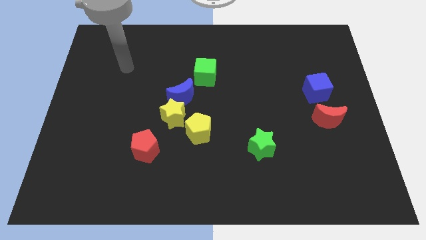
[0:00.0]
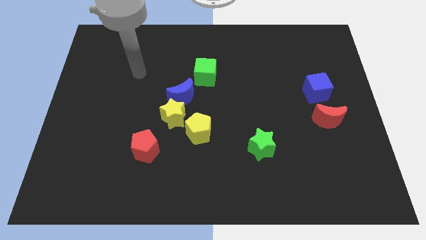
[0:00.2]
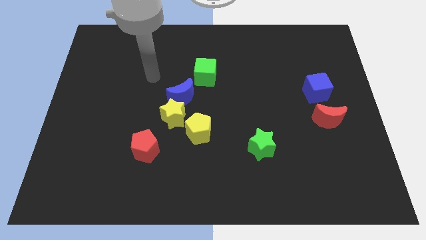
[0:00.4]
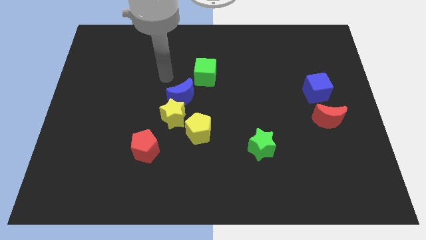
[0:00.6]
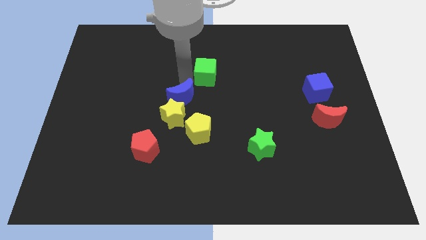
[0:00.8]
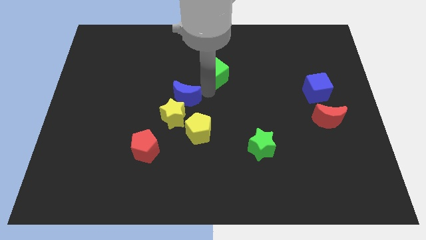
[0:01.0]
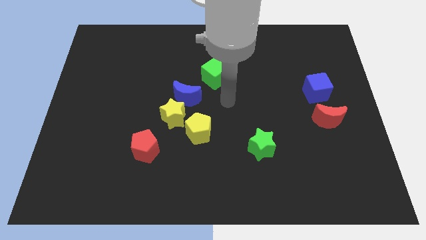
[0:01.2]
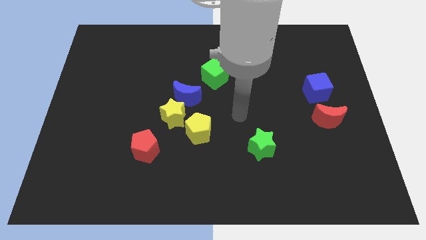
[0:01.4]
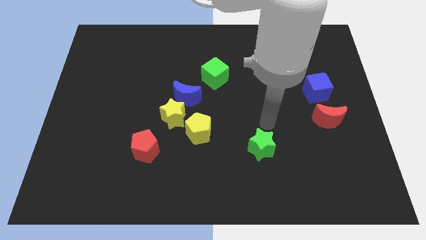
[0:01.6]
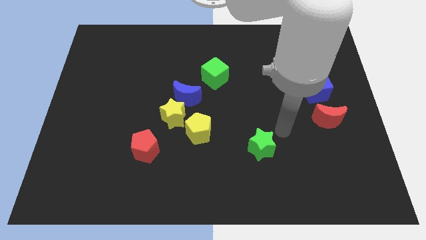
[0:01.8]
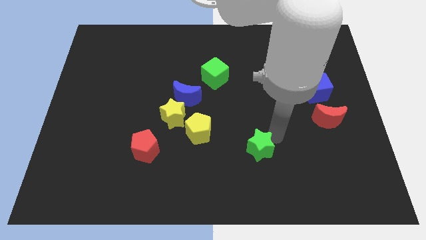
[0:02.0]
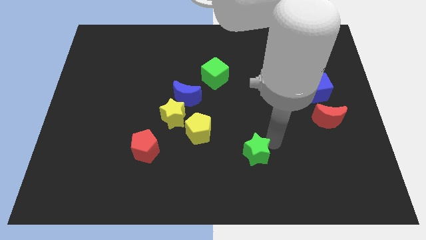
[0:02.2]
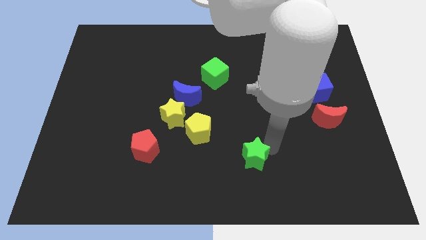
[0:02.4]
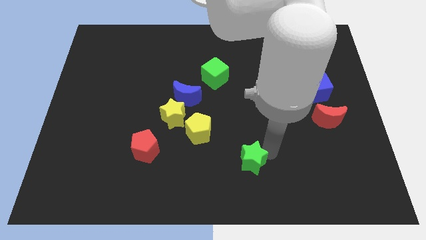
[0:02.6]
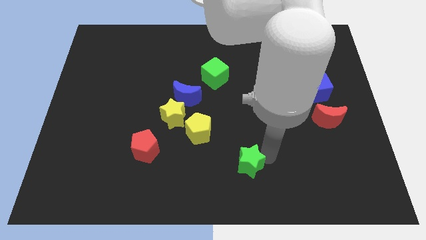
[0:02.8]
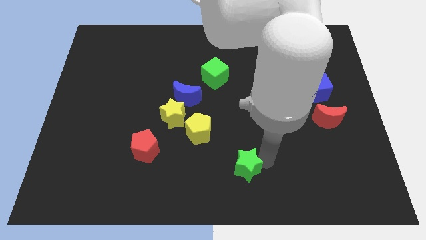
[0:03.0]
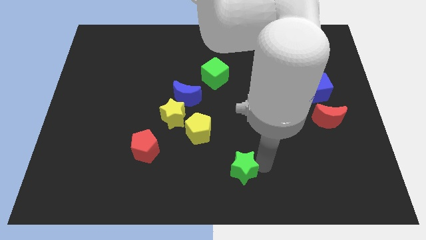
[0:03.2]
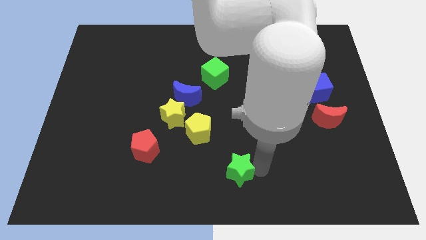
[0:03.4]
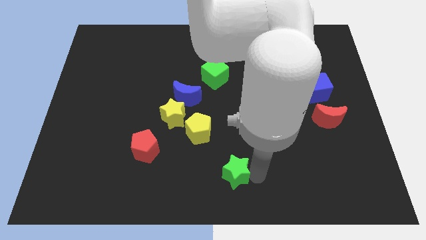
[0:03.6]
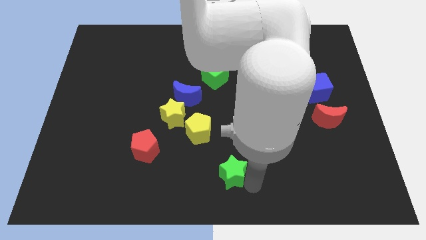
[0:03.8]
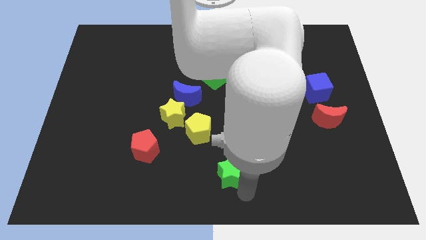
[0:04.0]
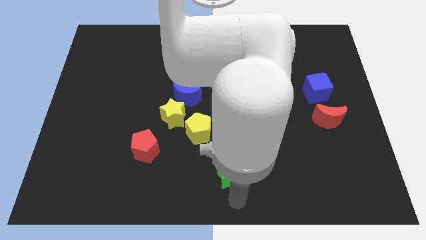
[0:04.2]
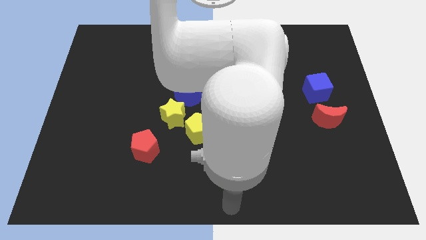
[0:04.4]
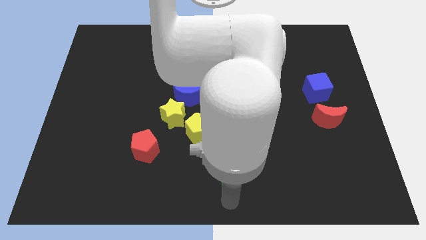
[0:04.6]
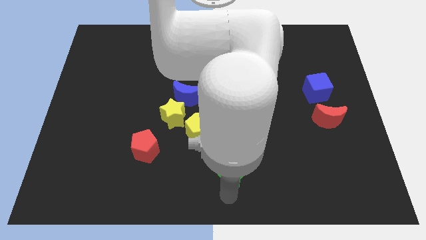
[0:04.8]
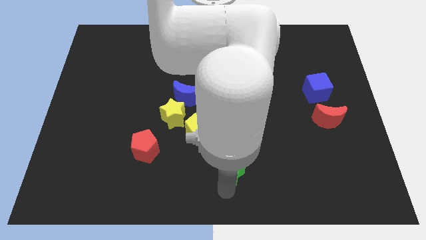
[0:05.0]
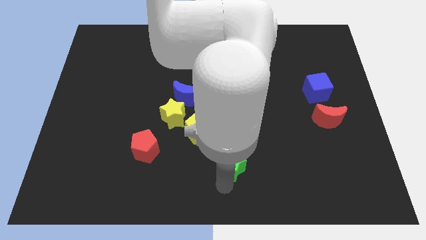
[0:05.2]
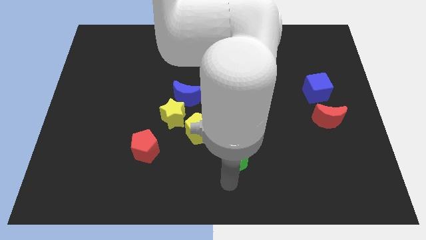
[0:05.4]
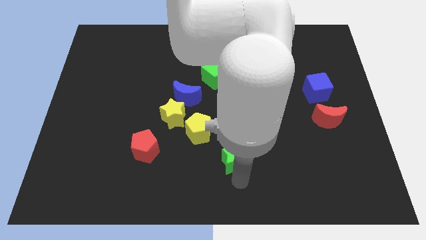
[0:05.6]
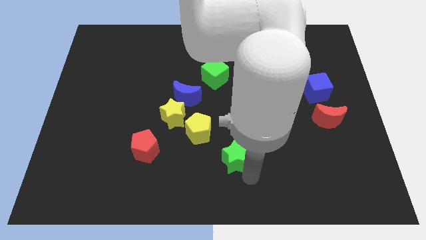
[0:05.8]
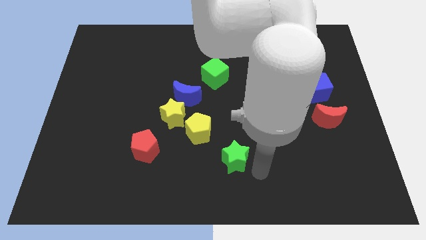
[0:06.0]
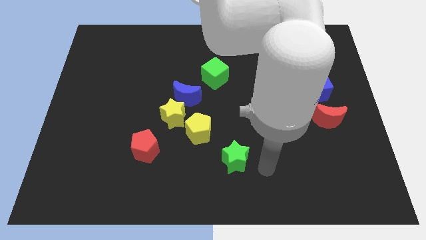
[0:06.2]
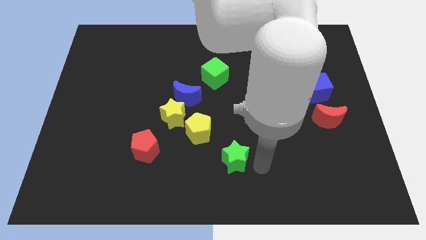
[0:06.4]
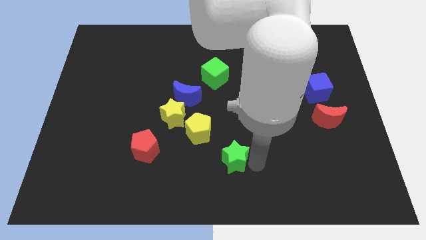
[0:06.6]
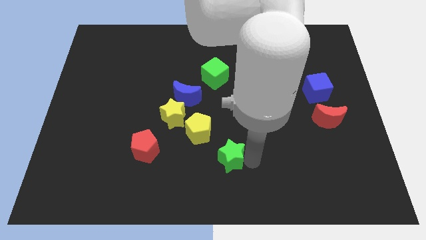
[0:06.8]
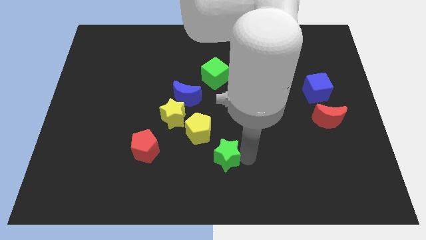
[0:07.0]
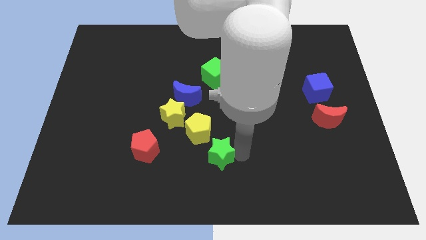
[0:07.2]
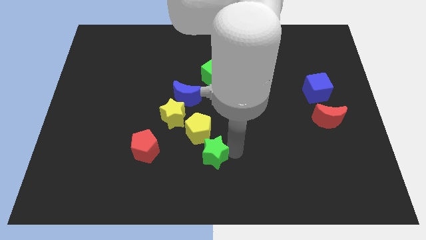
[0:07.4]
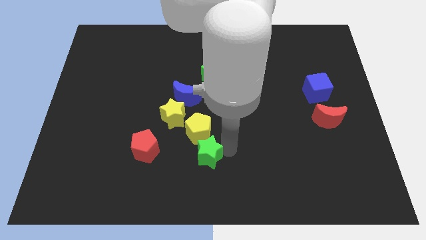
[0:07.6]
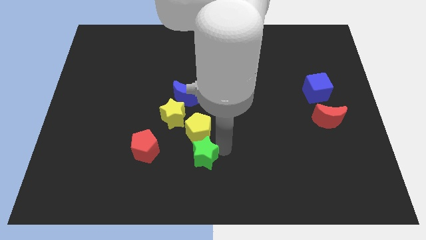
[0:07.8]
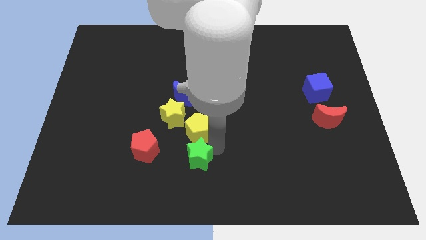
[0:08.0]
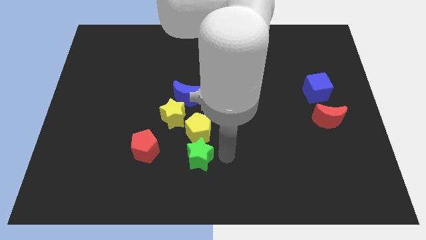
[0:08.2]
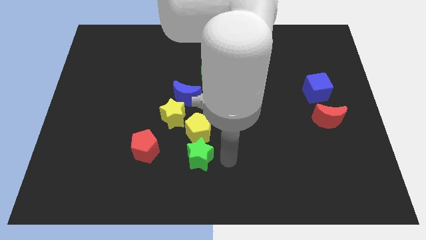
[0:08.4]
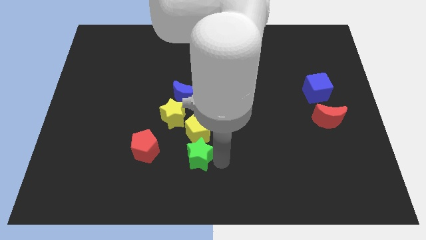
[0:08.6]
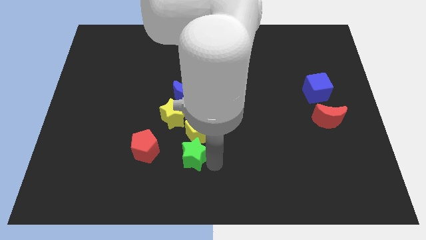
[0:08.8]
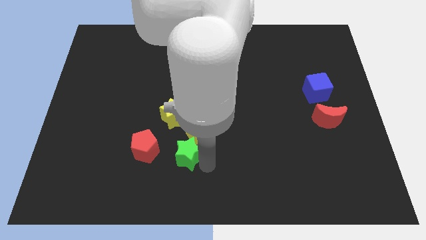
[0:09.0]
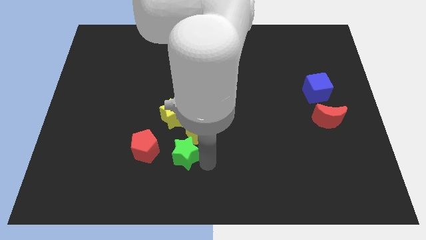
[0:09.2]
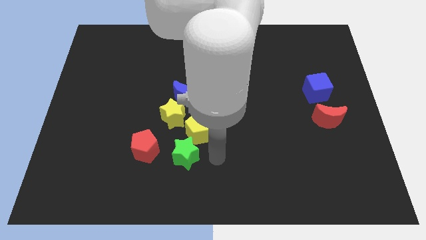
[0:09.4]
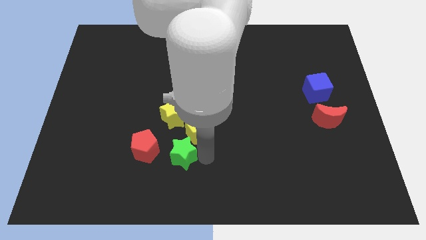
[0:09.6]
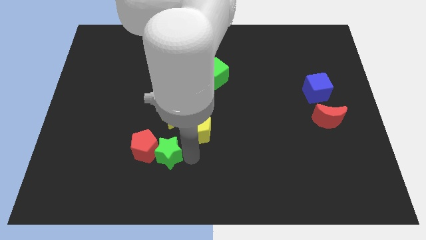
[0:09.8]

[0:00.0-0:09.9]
slide the green star close to the red pentagon

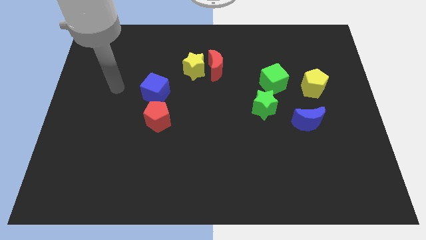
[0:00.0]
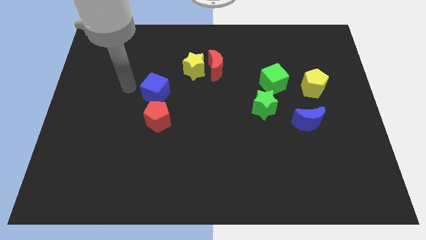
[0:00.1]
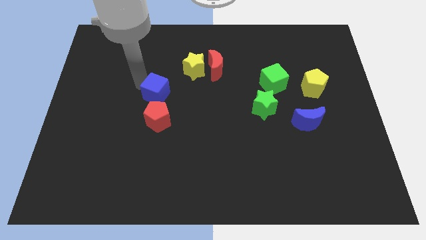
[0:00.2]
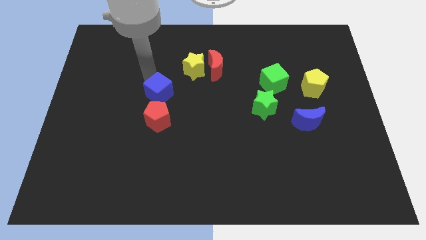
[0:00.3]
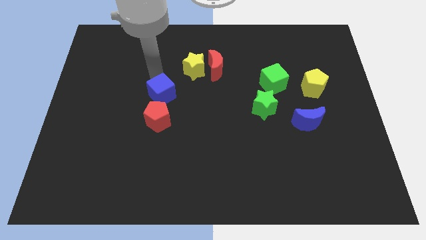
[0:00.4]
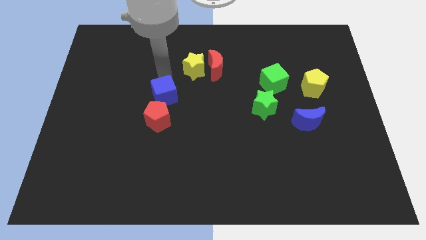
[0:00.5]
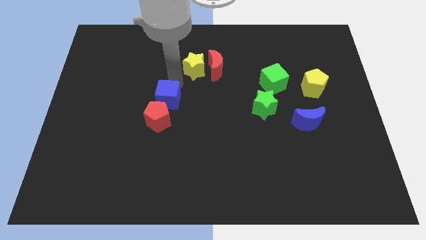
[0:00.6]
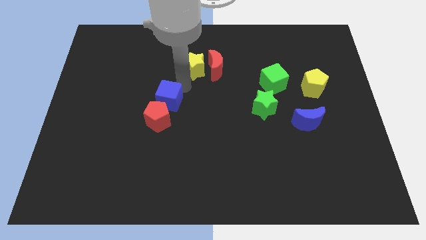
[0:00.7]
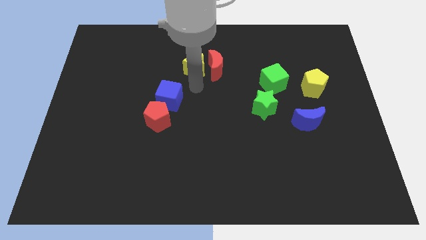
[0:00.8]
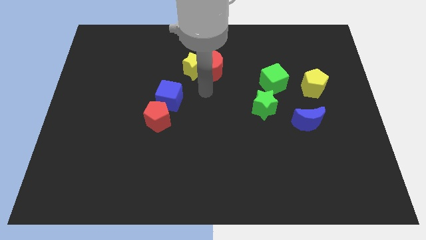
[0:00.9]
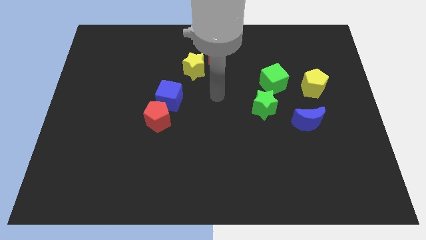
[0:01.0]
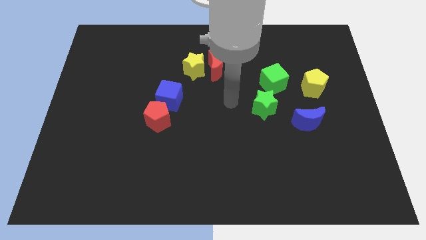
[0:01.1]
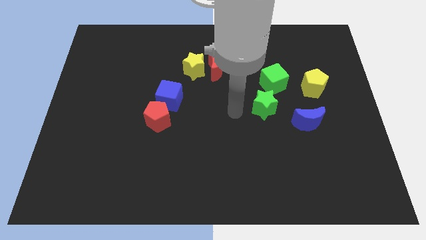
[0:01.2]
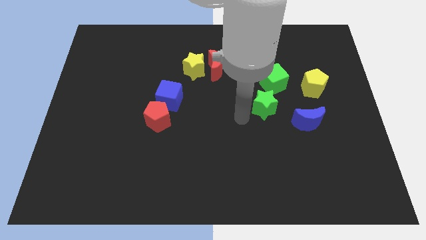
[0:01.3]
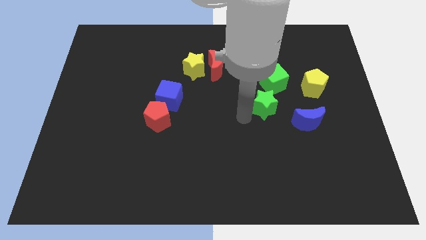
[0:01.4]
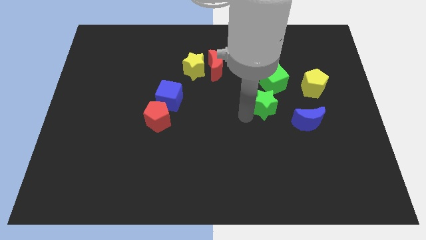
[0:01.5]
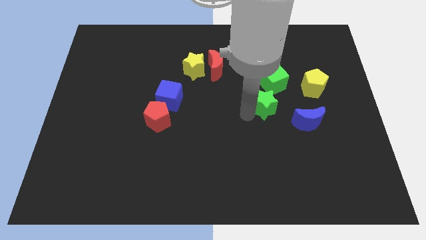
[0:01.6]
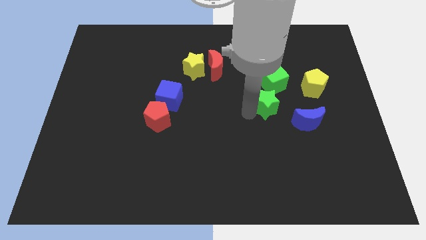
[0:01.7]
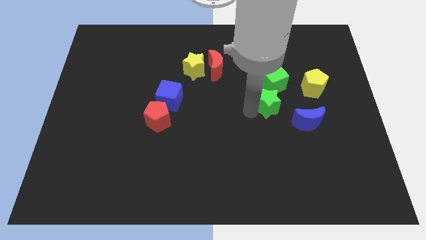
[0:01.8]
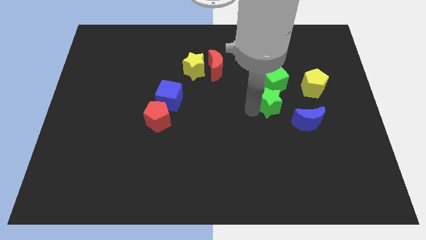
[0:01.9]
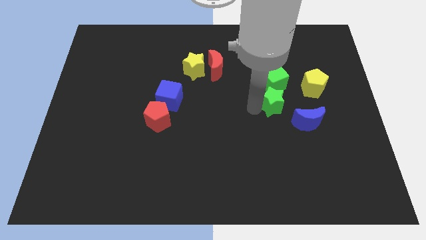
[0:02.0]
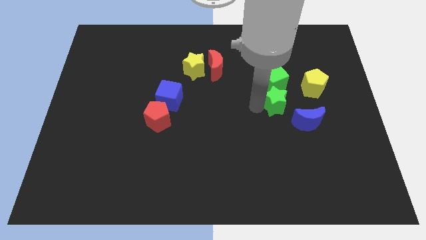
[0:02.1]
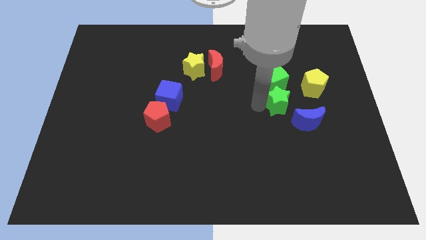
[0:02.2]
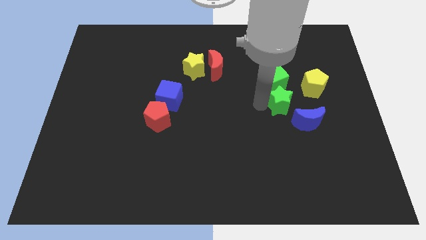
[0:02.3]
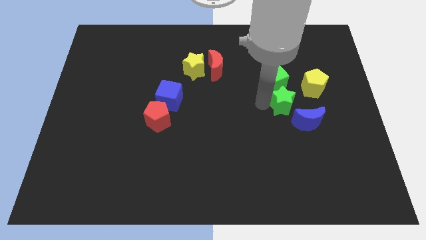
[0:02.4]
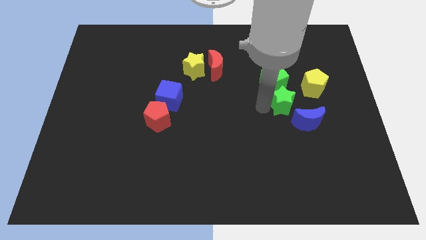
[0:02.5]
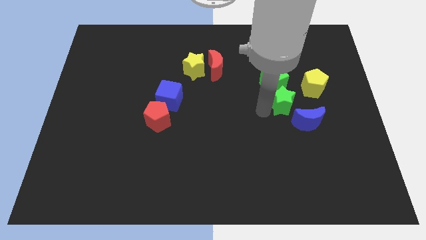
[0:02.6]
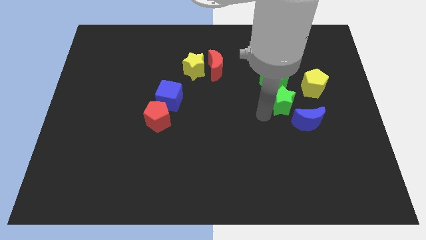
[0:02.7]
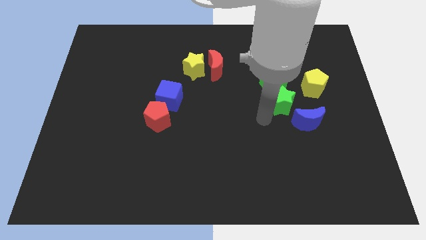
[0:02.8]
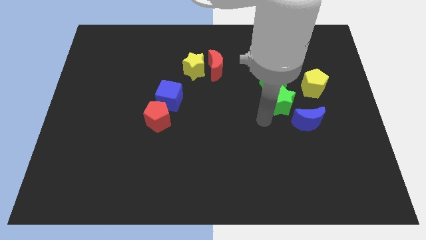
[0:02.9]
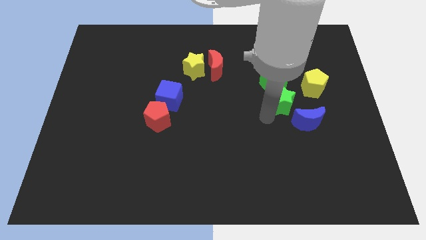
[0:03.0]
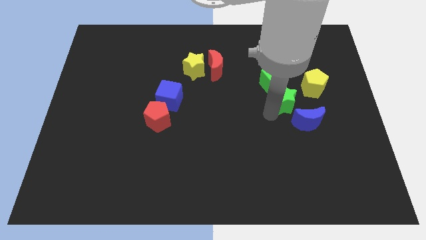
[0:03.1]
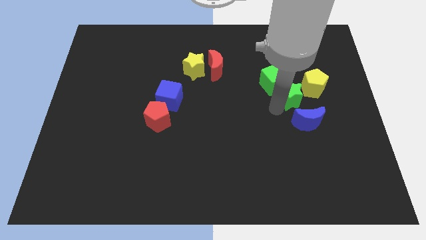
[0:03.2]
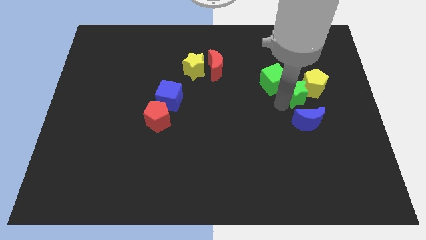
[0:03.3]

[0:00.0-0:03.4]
push the green star towards the yellow pentagon
